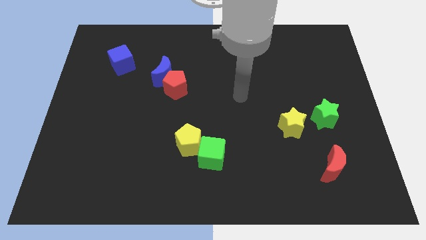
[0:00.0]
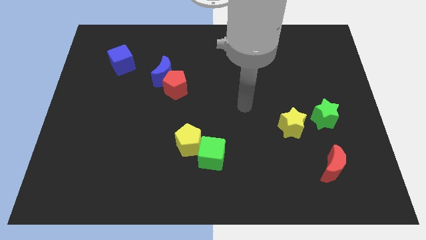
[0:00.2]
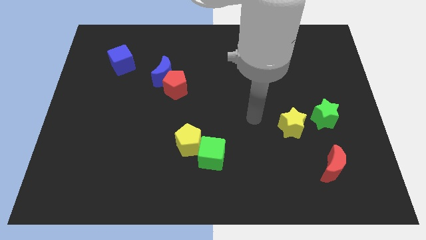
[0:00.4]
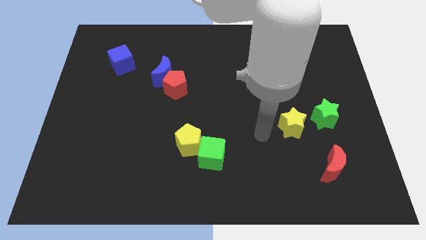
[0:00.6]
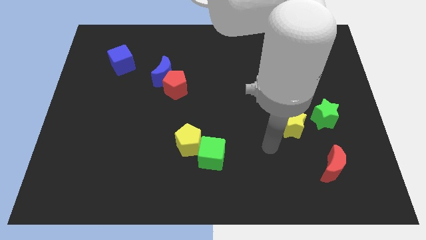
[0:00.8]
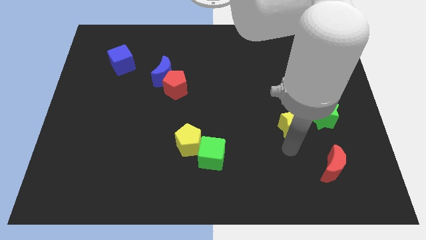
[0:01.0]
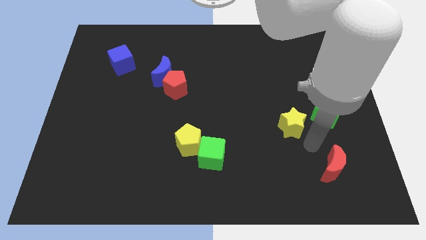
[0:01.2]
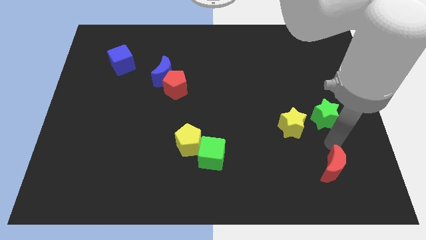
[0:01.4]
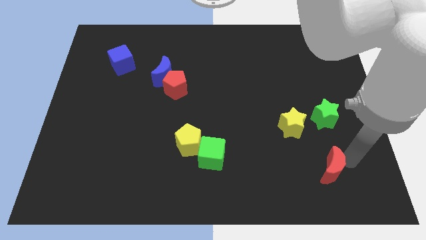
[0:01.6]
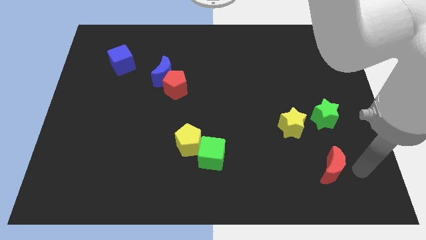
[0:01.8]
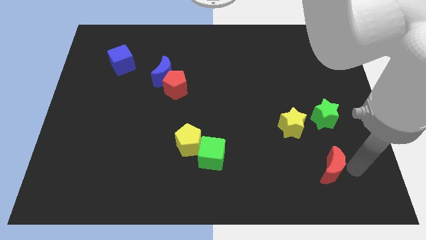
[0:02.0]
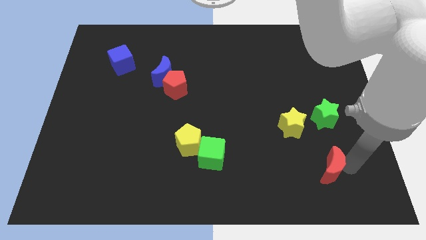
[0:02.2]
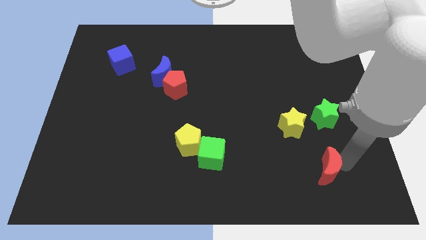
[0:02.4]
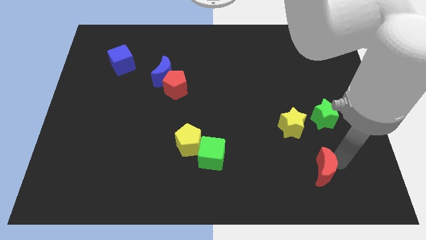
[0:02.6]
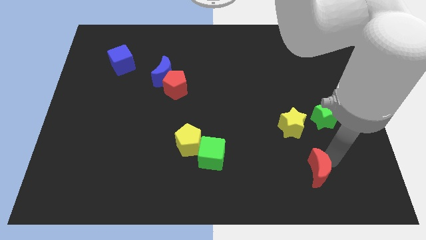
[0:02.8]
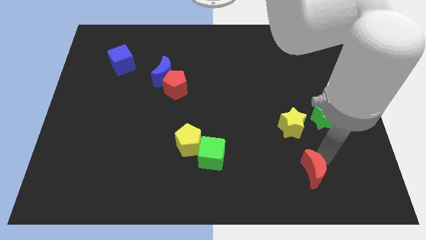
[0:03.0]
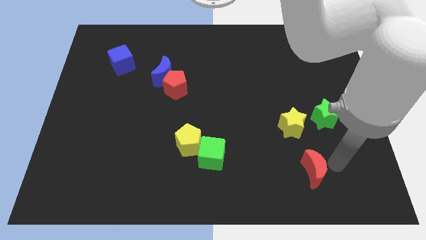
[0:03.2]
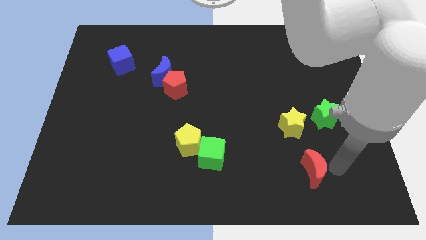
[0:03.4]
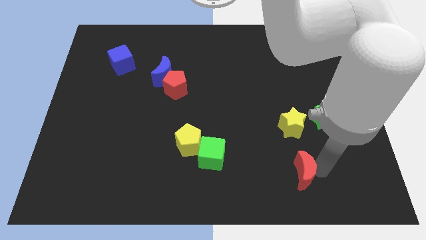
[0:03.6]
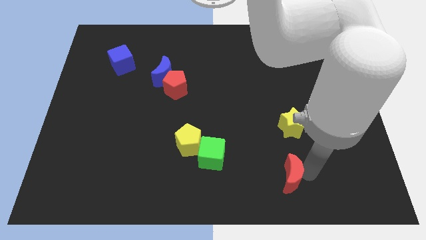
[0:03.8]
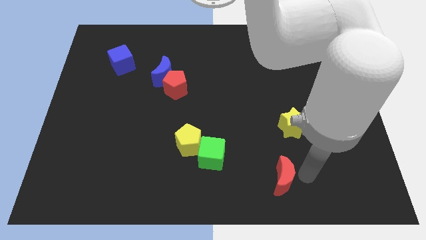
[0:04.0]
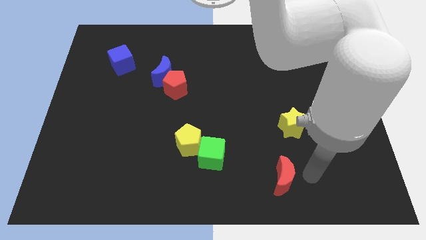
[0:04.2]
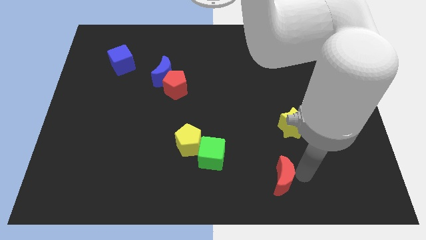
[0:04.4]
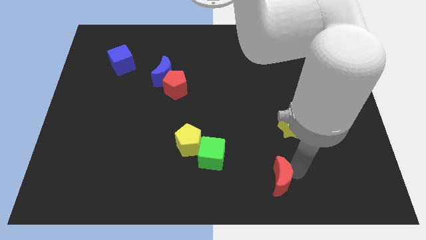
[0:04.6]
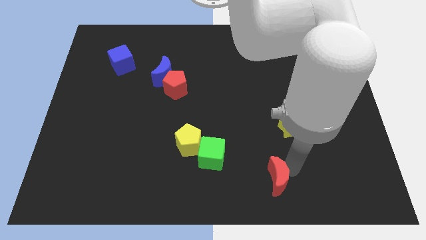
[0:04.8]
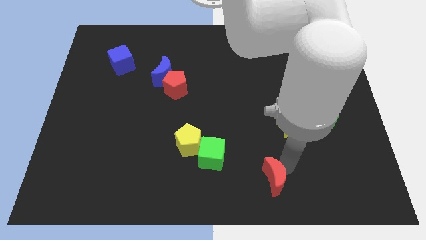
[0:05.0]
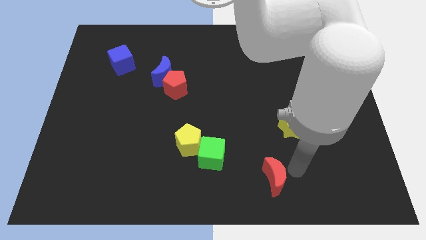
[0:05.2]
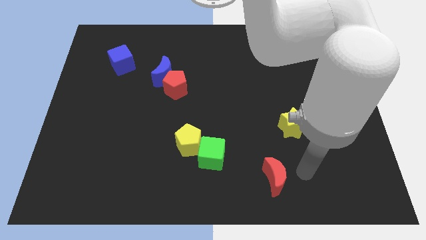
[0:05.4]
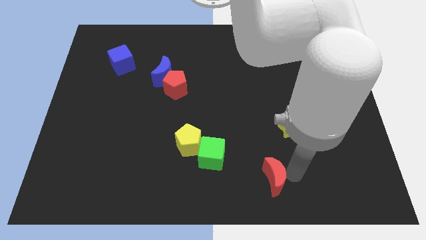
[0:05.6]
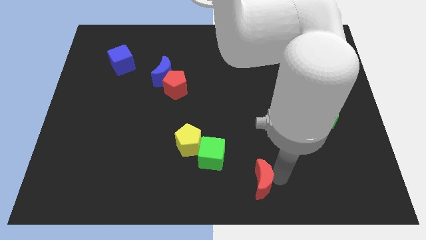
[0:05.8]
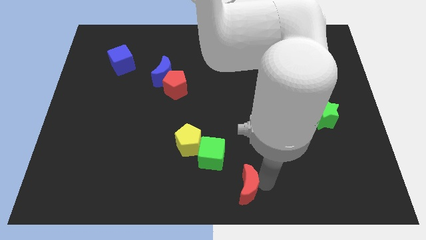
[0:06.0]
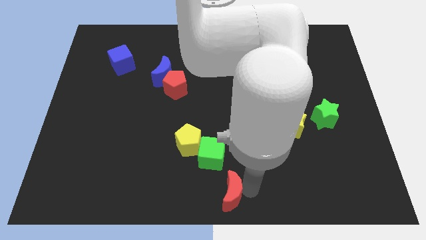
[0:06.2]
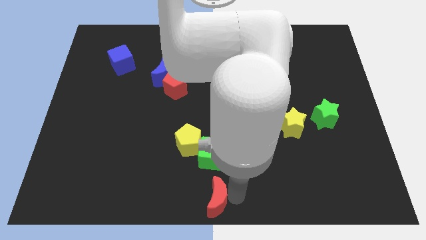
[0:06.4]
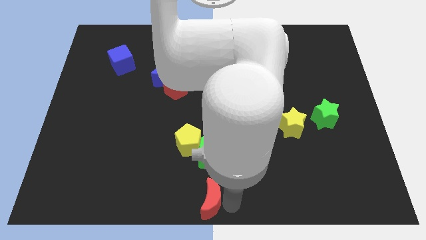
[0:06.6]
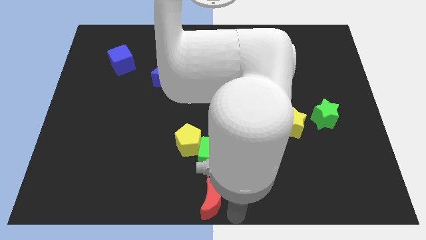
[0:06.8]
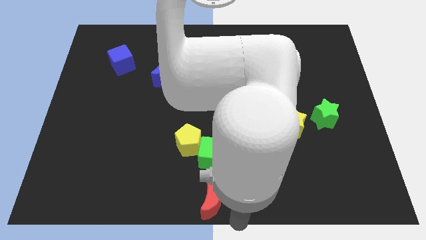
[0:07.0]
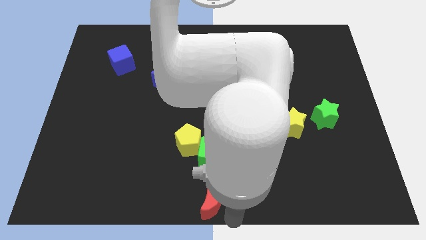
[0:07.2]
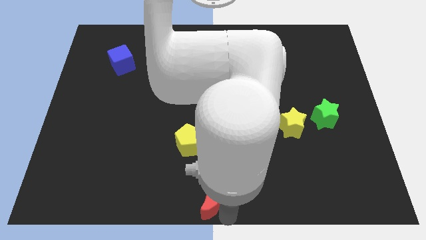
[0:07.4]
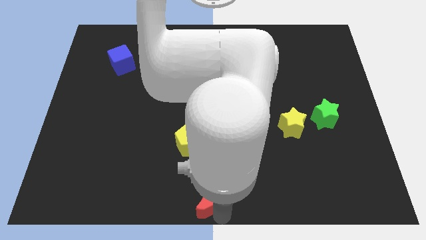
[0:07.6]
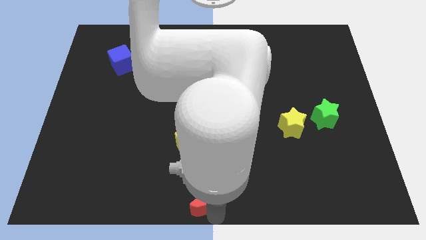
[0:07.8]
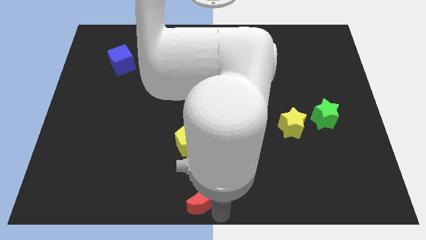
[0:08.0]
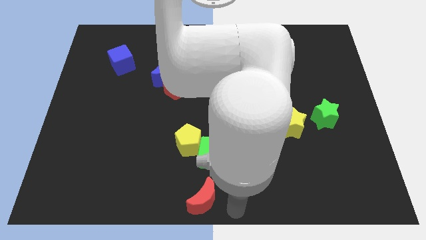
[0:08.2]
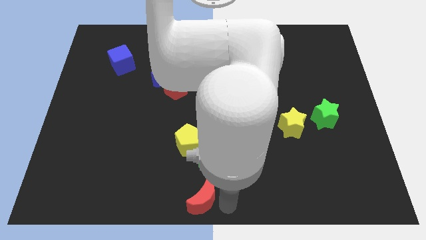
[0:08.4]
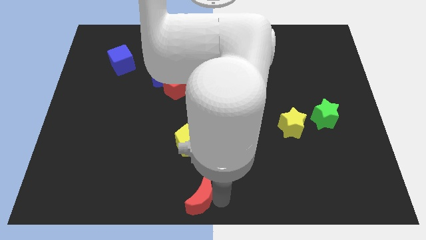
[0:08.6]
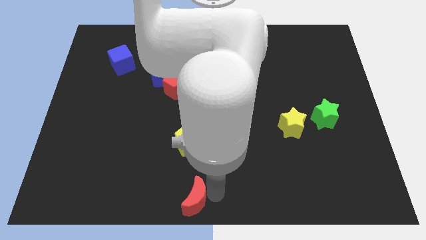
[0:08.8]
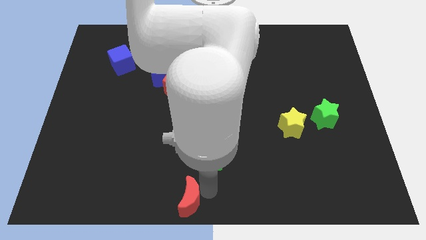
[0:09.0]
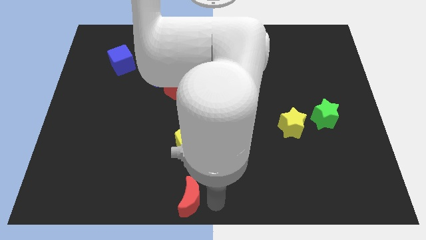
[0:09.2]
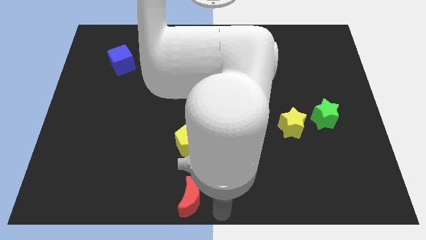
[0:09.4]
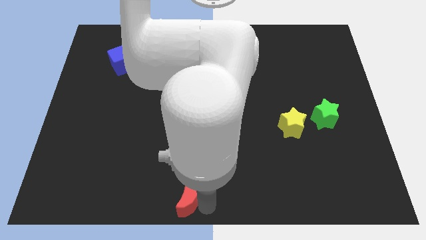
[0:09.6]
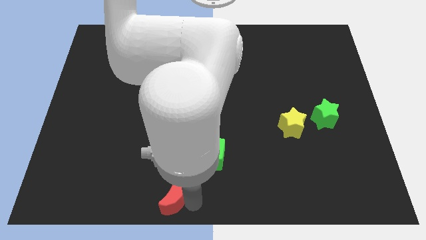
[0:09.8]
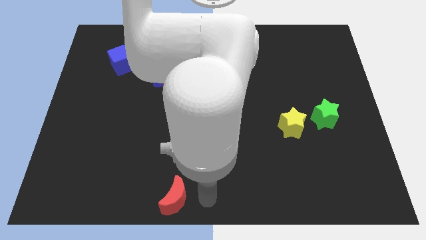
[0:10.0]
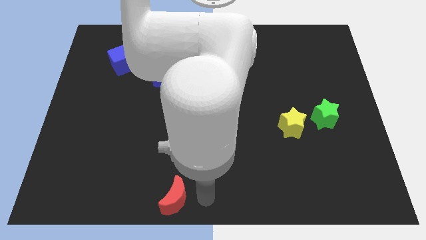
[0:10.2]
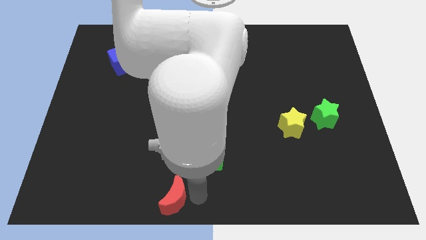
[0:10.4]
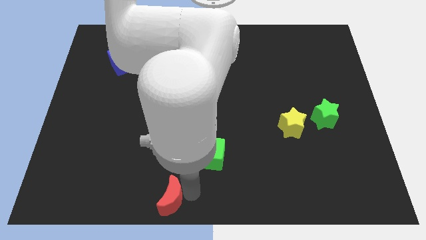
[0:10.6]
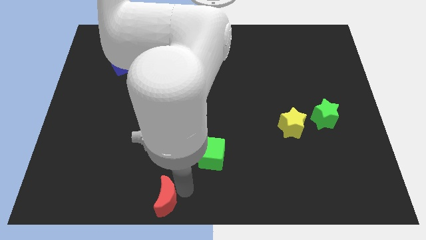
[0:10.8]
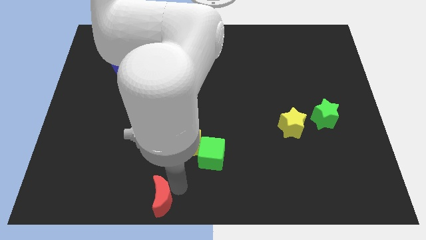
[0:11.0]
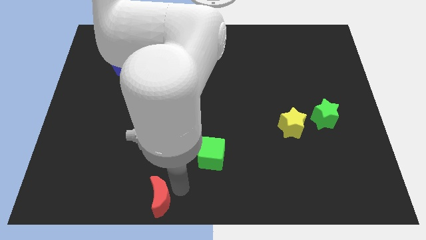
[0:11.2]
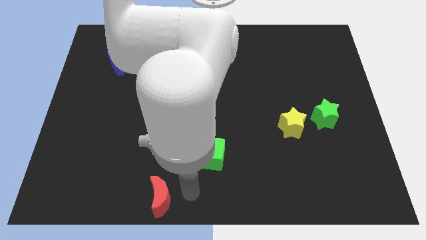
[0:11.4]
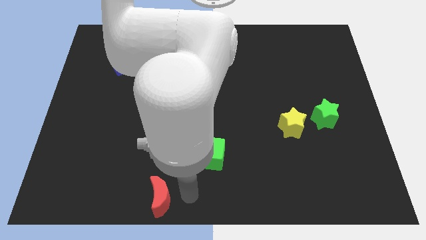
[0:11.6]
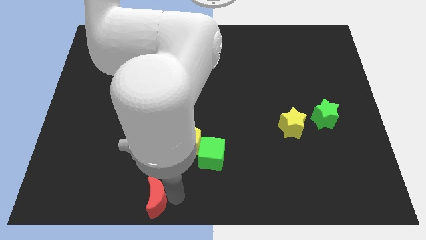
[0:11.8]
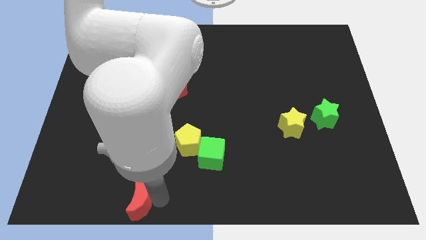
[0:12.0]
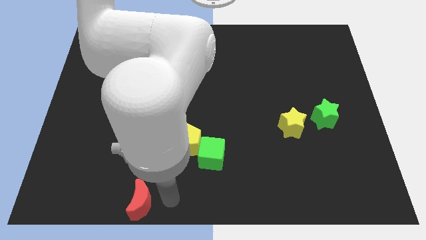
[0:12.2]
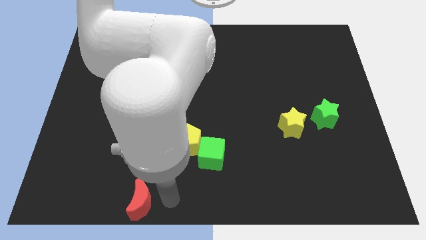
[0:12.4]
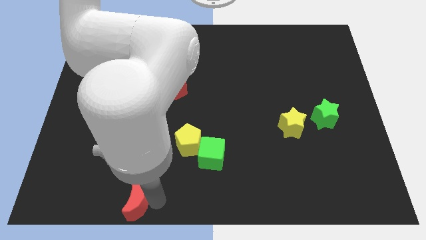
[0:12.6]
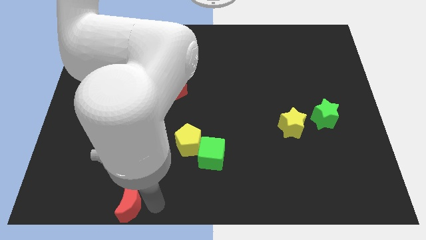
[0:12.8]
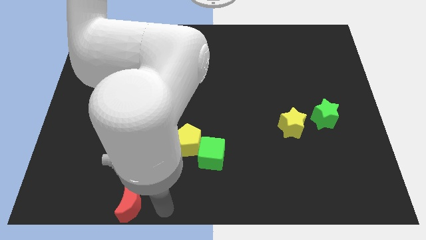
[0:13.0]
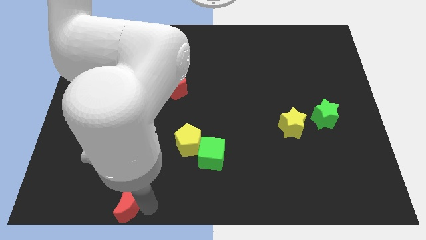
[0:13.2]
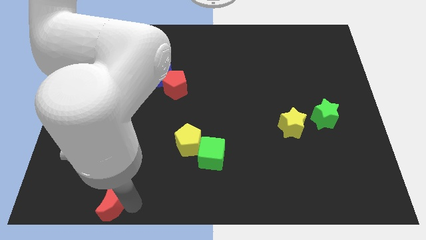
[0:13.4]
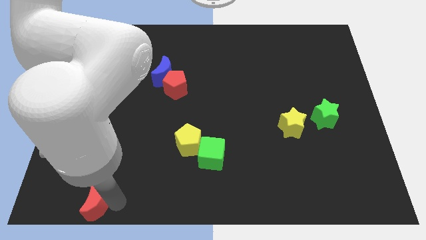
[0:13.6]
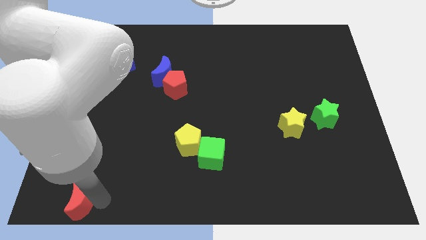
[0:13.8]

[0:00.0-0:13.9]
put the red moon to the lower left corner

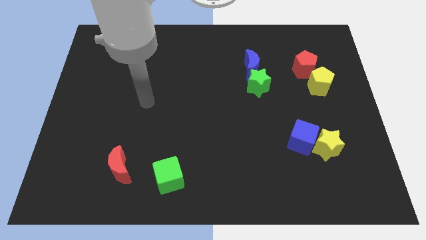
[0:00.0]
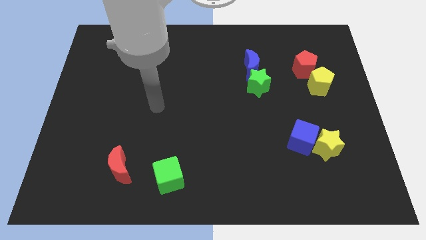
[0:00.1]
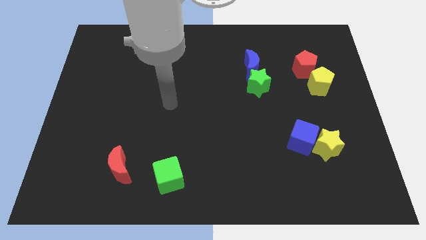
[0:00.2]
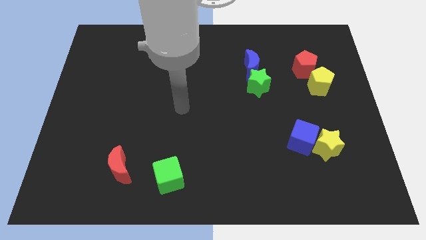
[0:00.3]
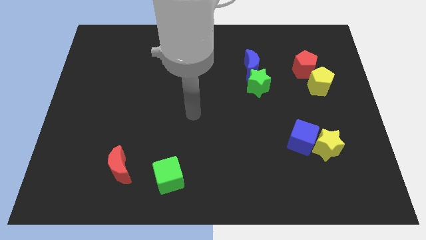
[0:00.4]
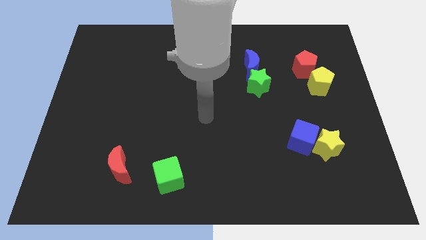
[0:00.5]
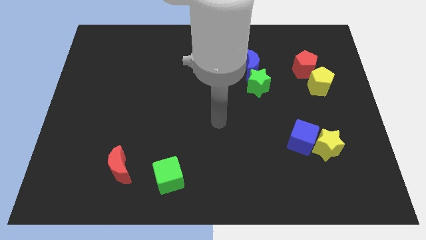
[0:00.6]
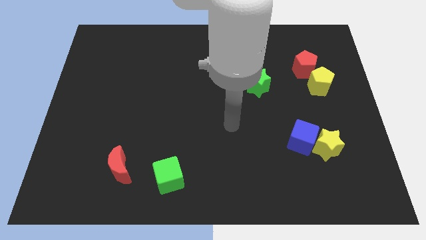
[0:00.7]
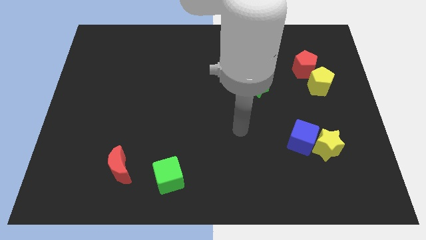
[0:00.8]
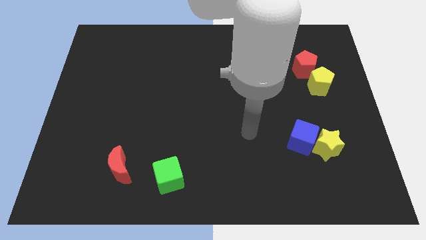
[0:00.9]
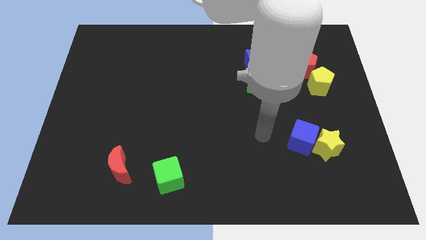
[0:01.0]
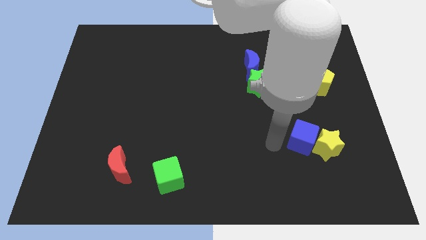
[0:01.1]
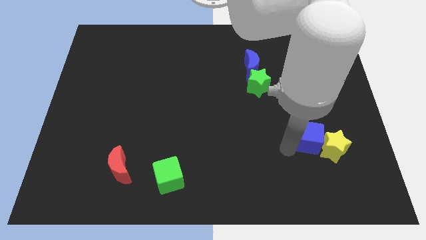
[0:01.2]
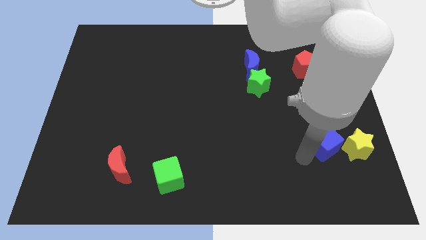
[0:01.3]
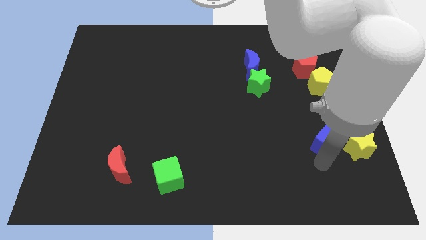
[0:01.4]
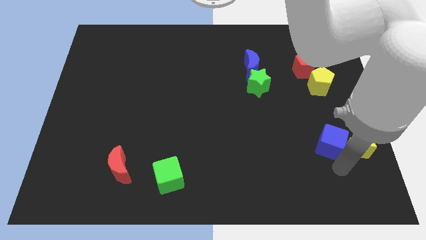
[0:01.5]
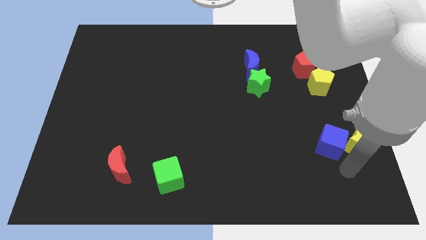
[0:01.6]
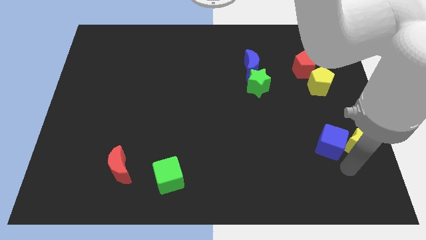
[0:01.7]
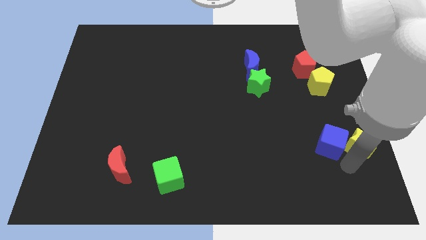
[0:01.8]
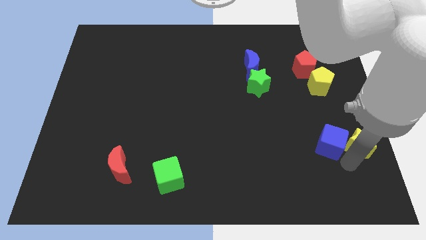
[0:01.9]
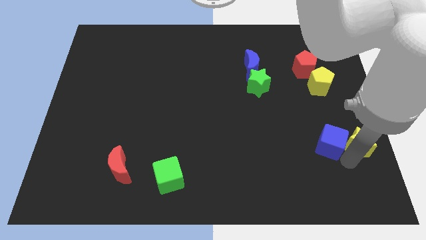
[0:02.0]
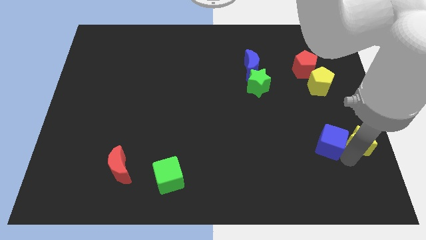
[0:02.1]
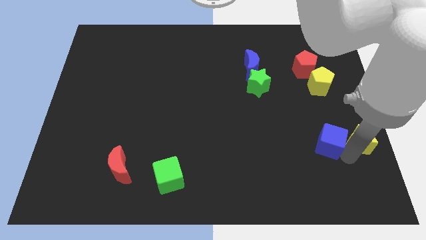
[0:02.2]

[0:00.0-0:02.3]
push the yellow star to the right side of the board
